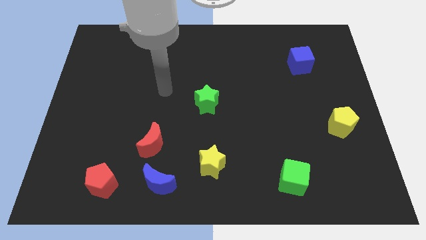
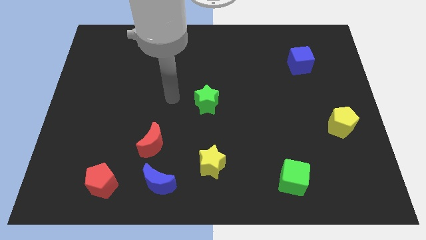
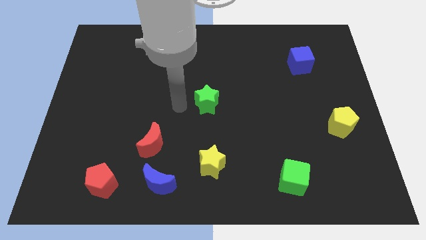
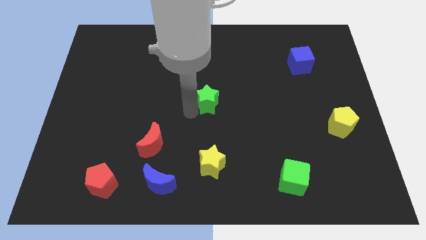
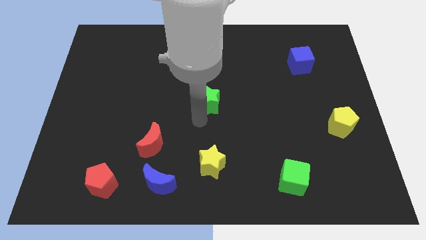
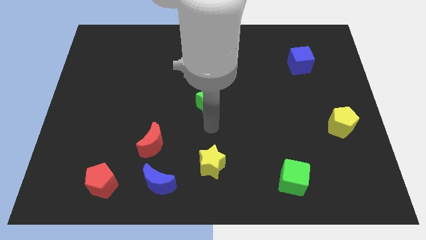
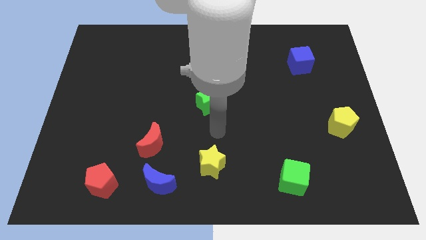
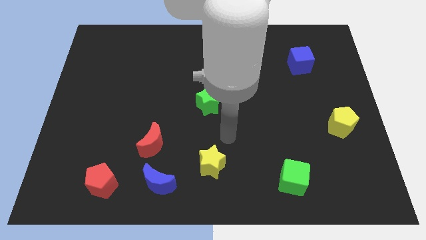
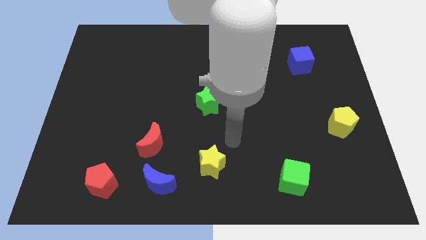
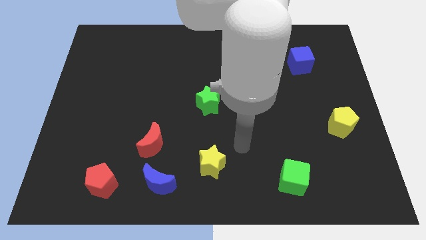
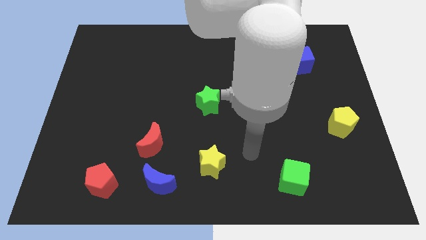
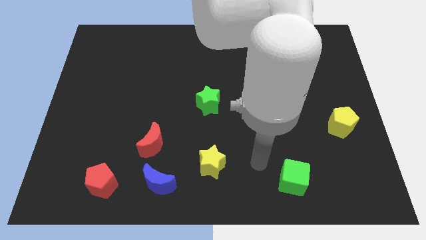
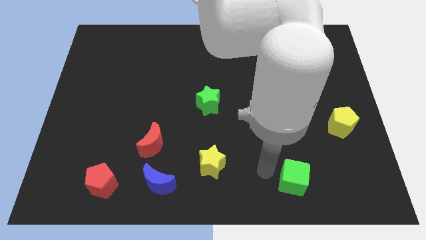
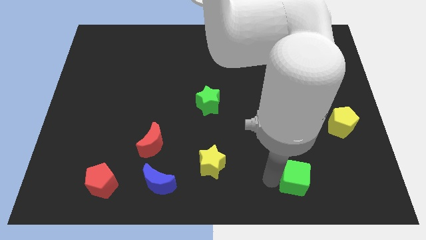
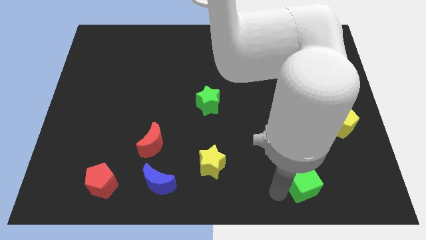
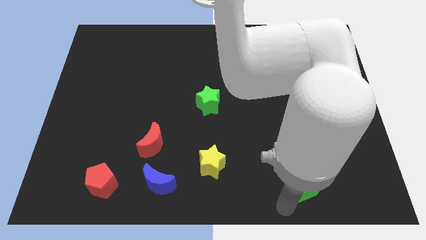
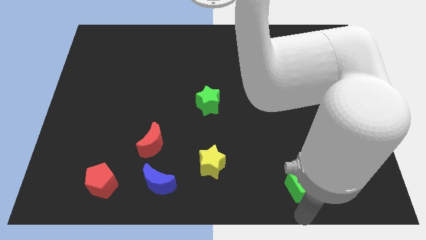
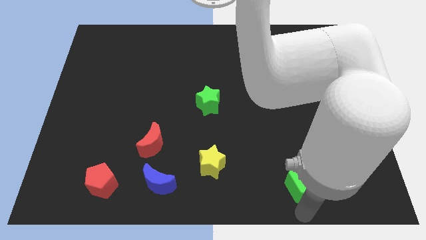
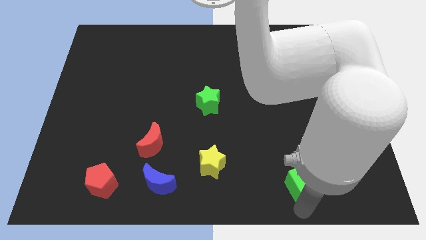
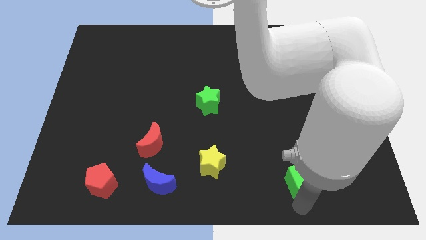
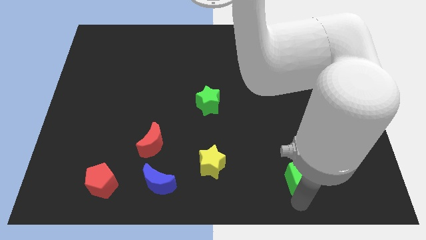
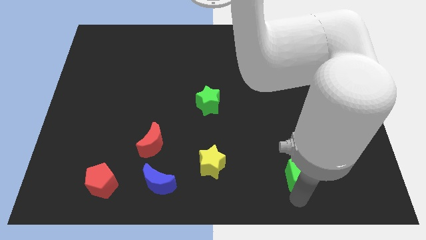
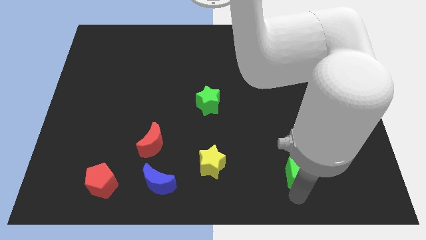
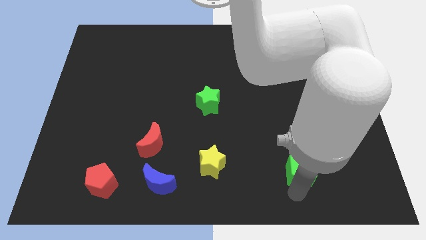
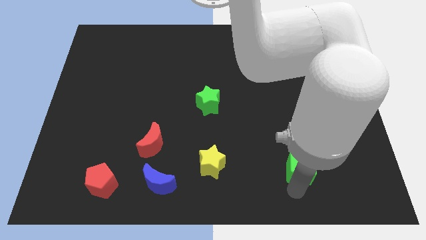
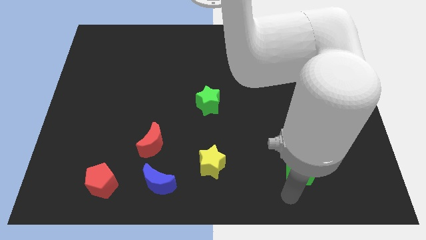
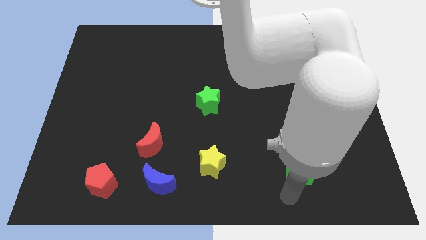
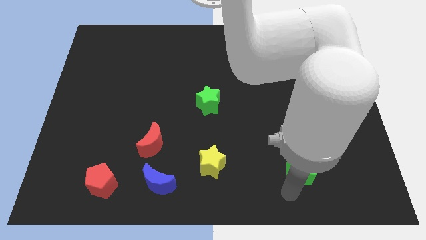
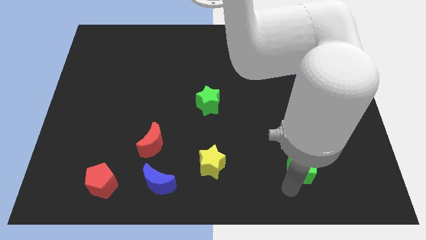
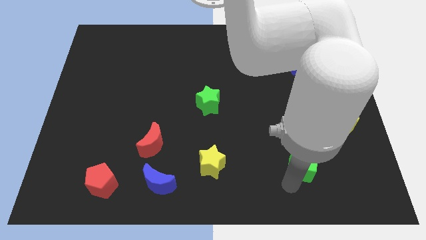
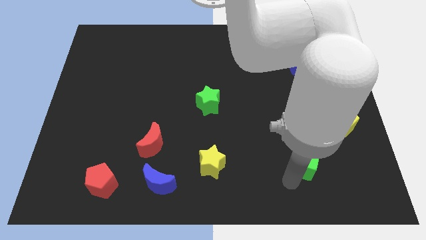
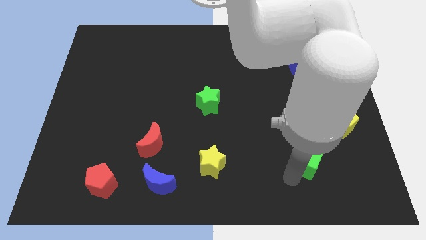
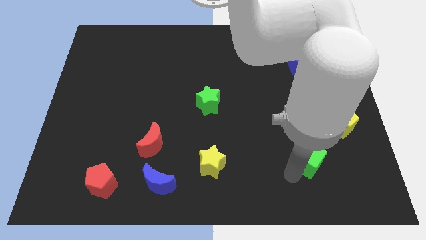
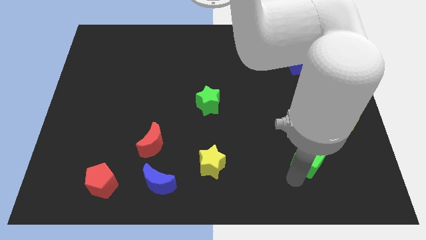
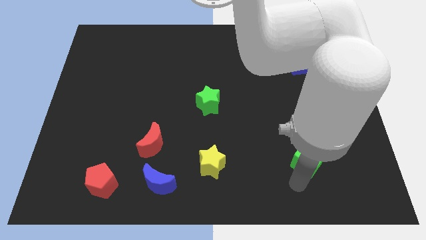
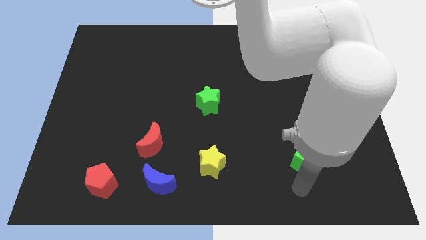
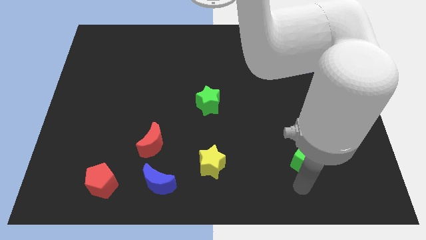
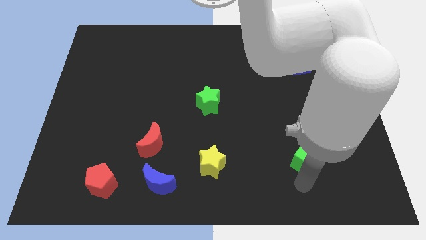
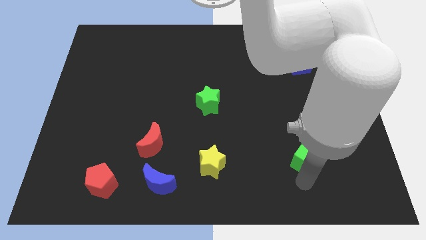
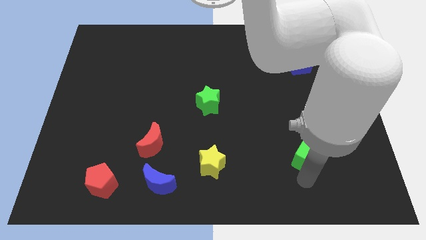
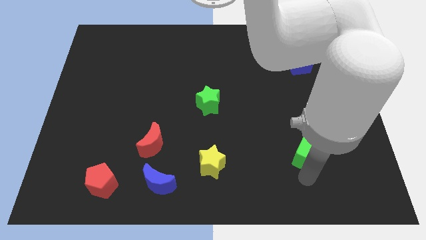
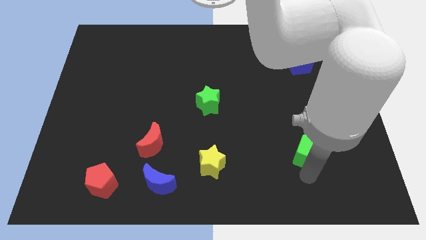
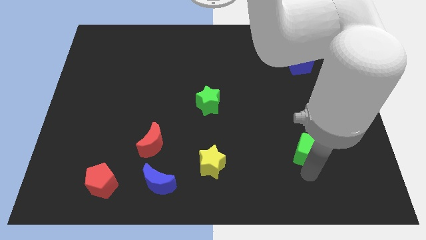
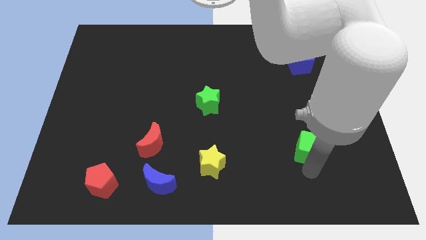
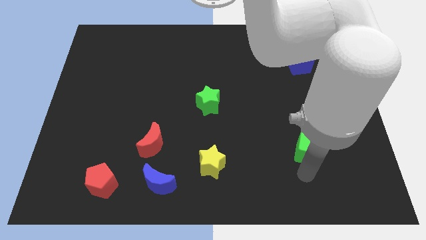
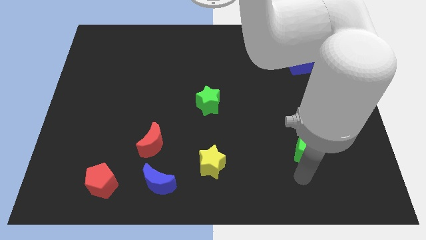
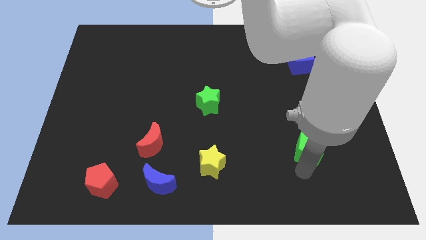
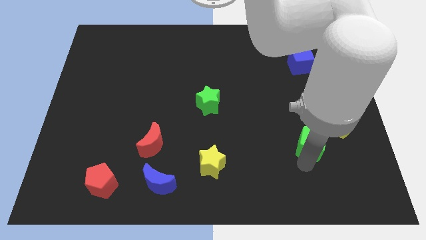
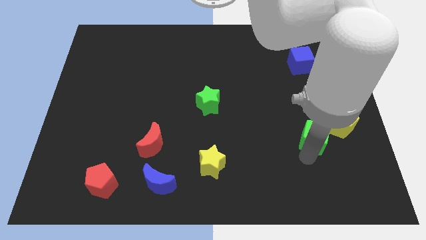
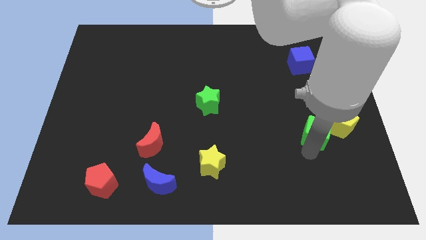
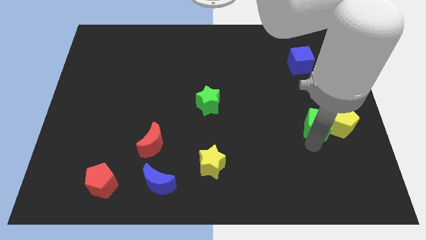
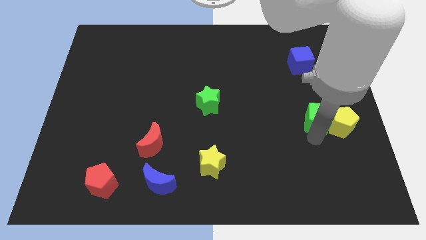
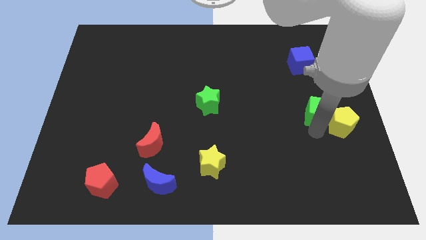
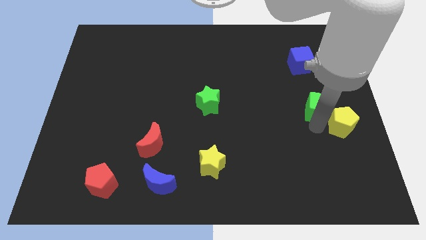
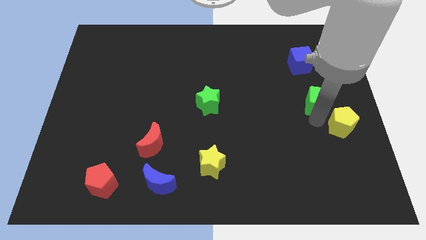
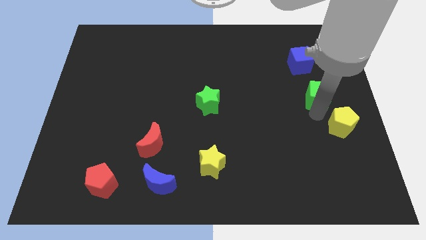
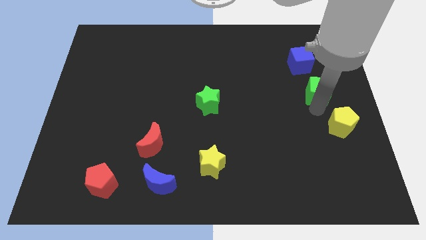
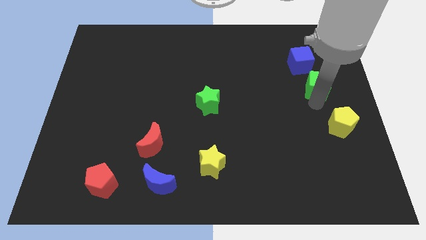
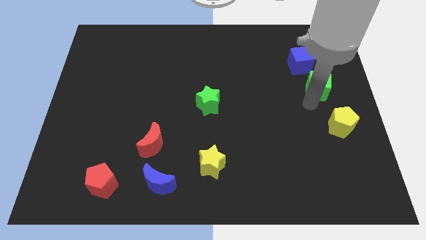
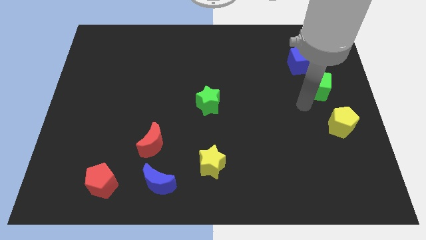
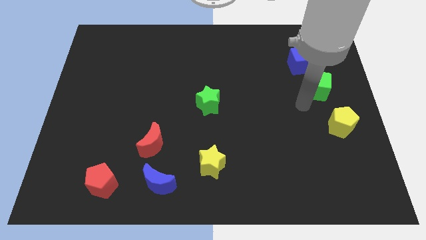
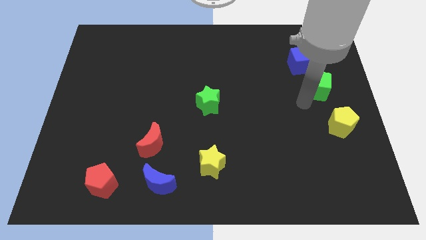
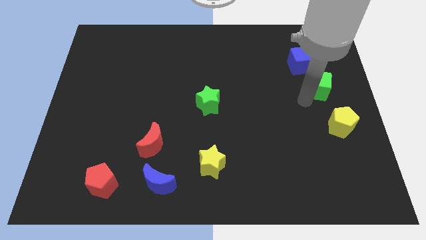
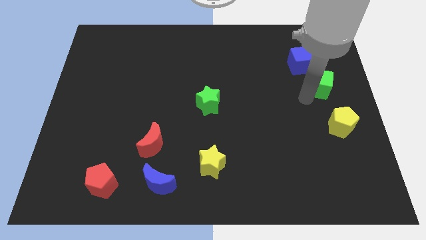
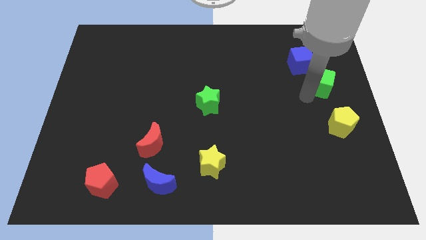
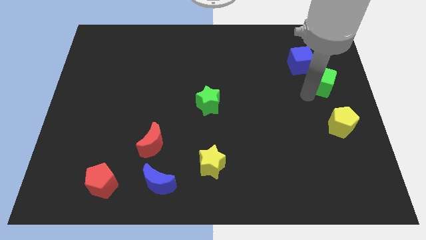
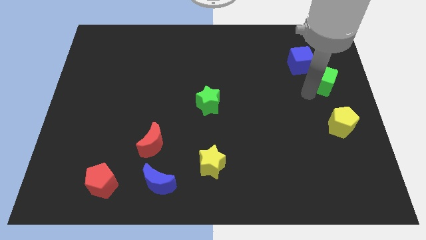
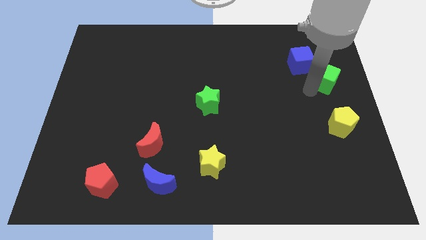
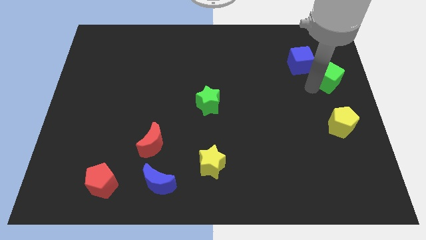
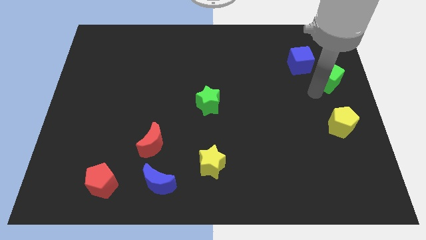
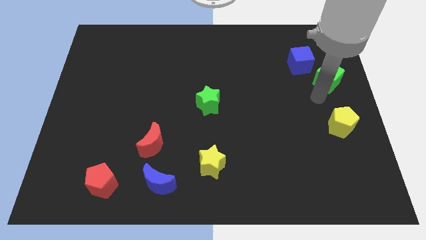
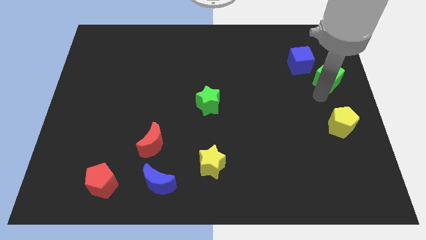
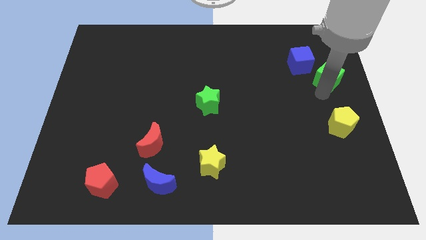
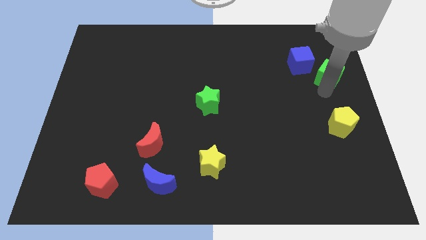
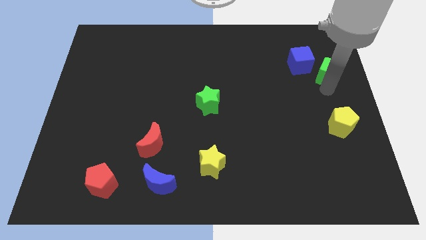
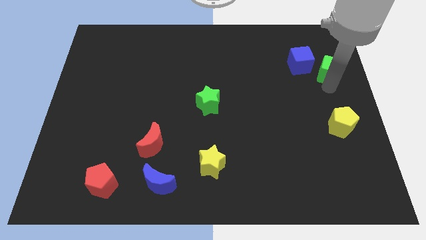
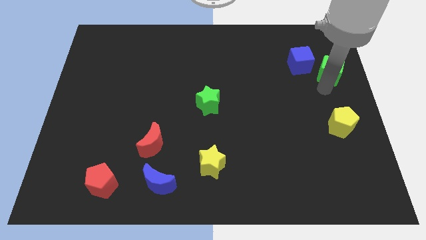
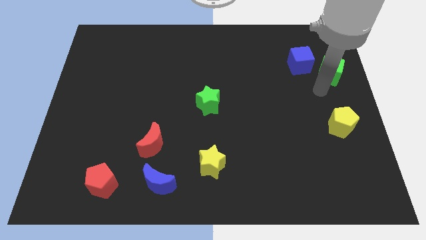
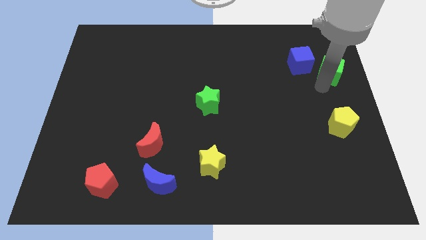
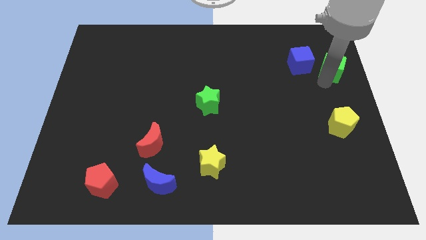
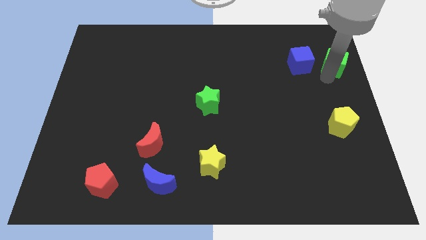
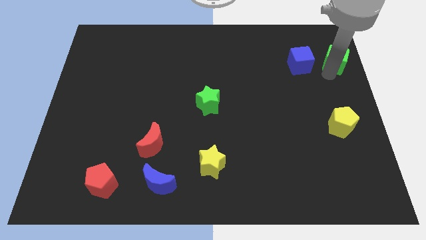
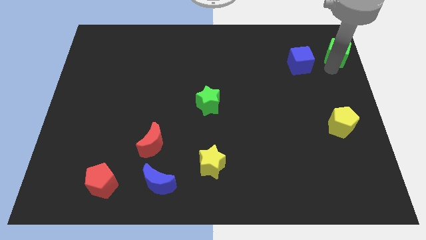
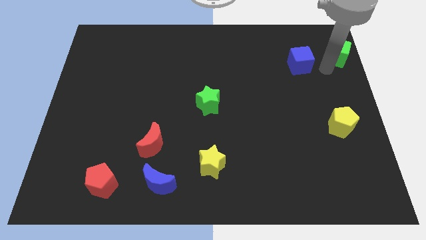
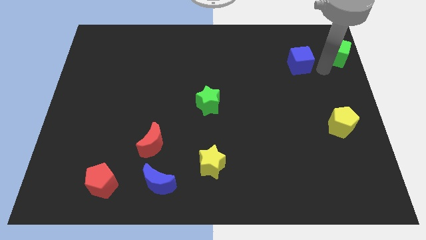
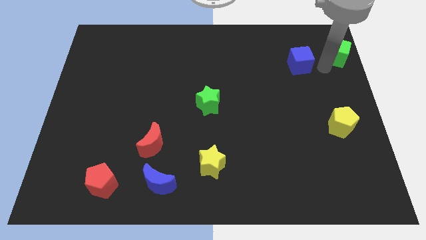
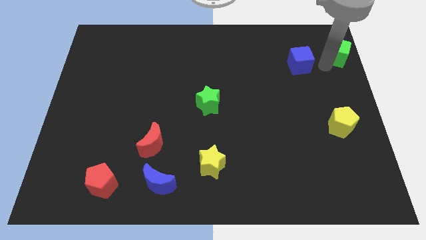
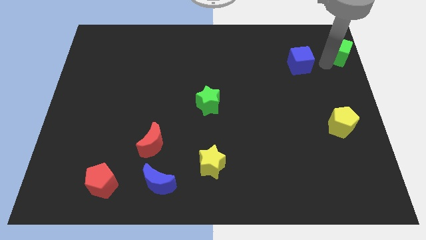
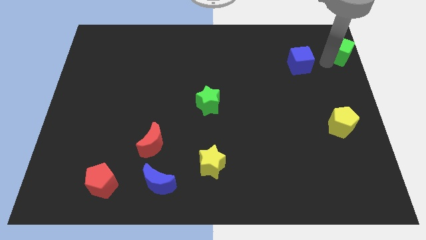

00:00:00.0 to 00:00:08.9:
move the green cube to the top right corner
